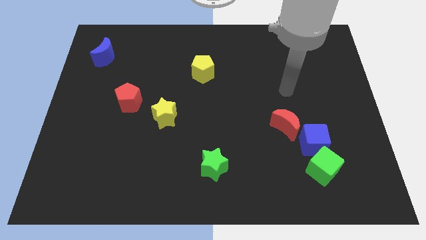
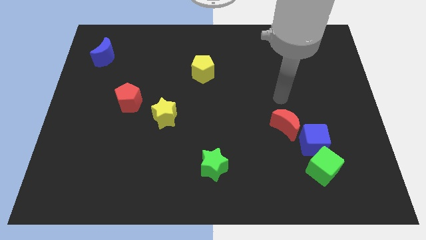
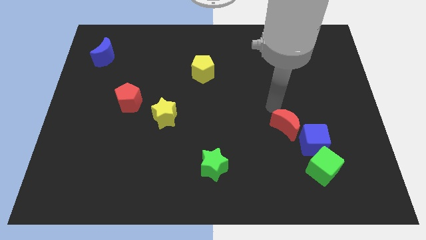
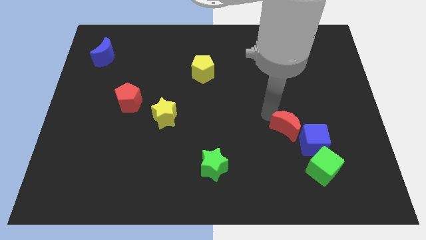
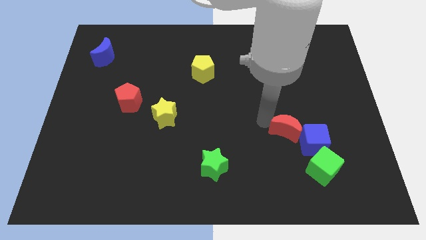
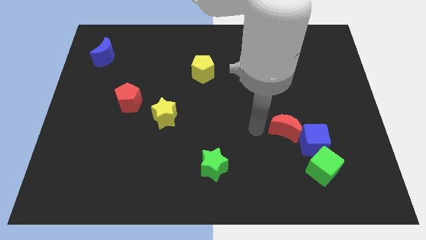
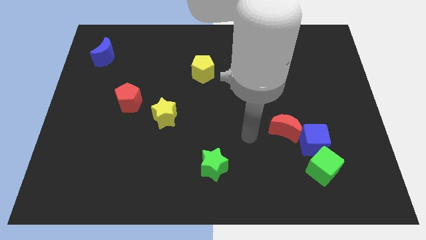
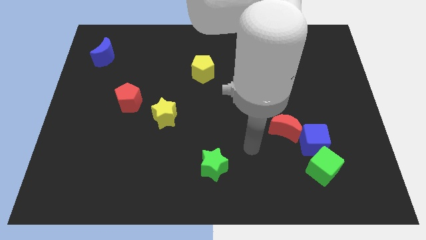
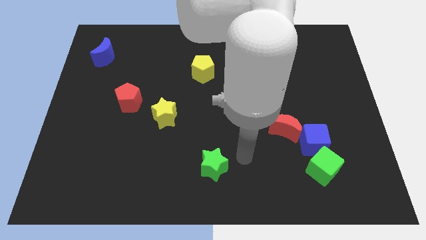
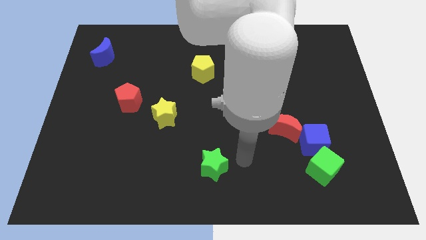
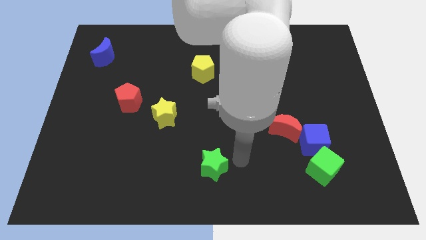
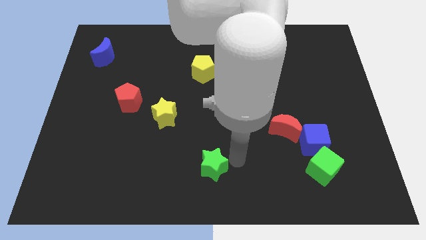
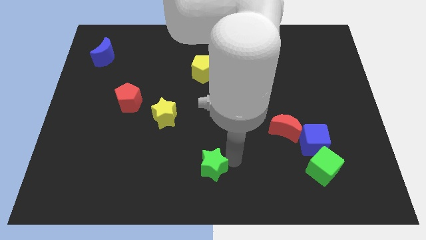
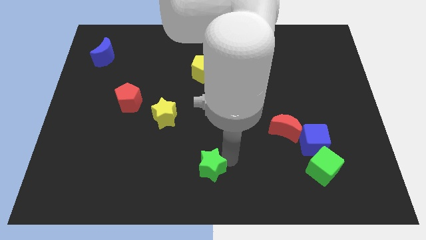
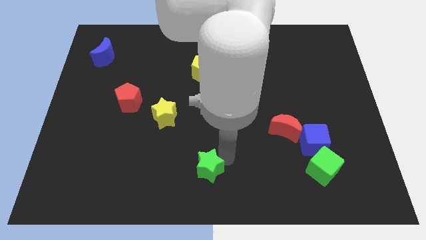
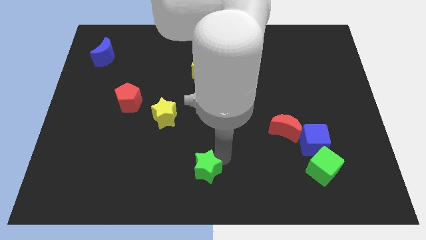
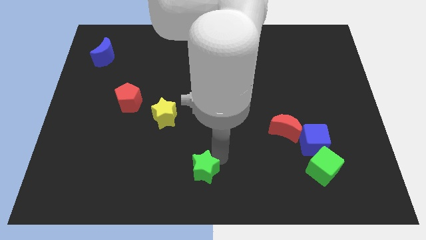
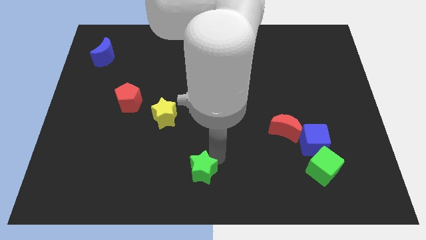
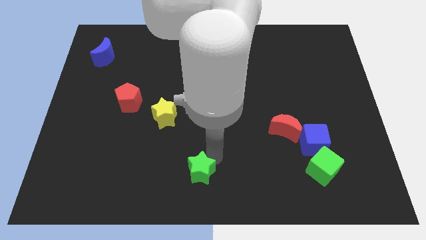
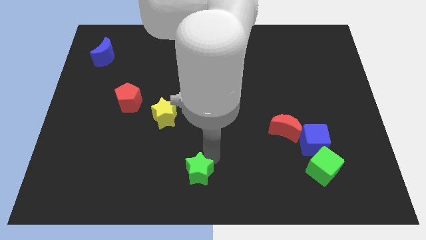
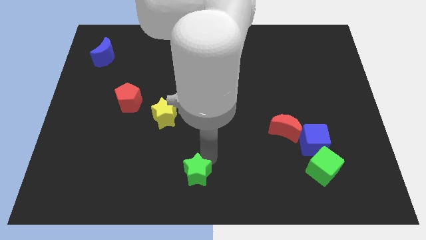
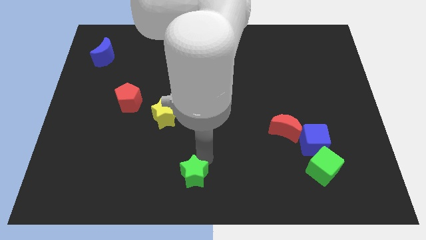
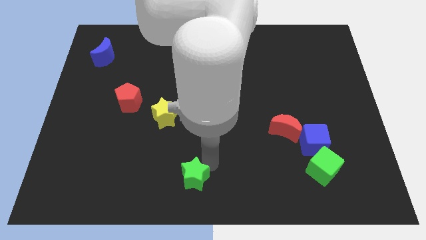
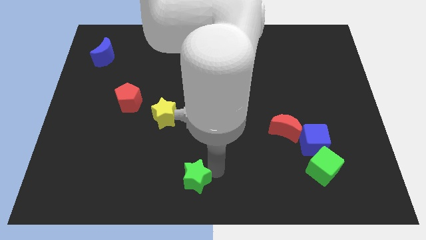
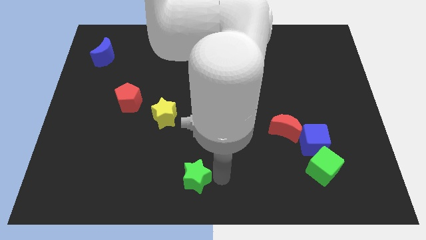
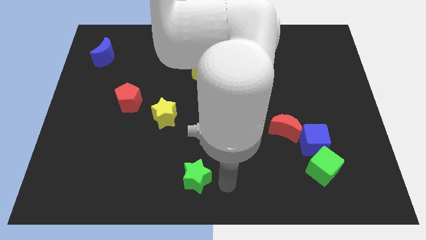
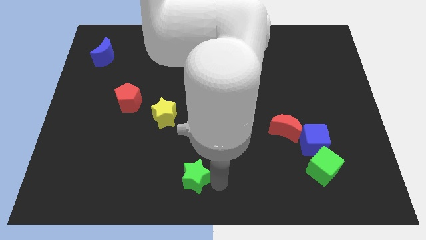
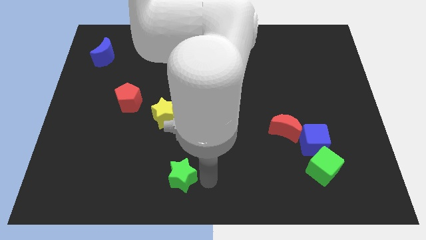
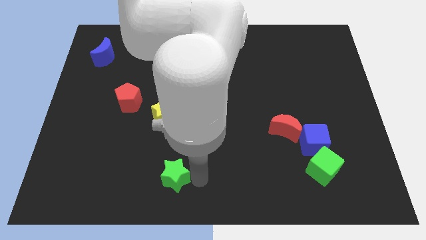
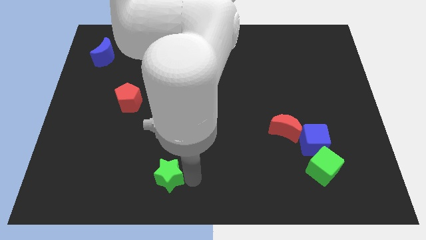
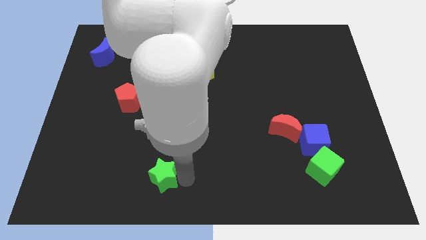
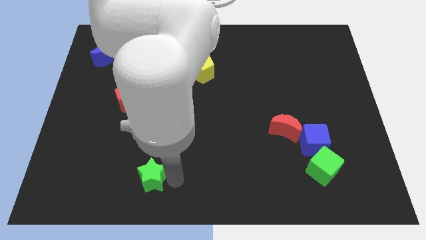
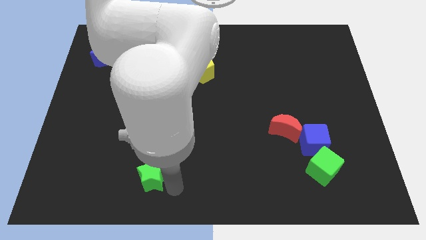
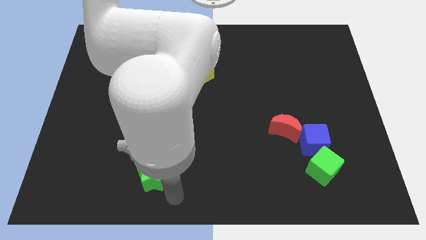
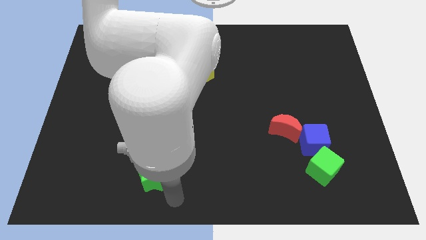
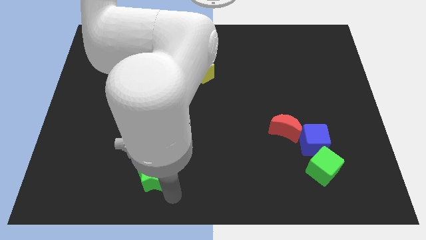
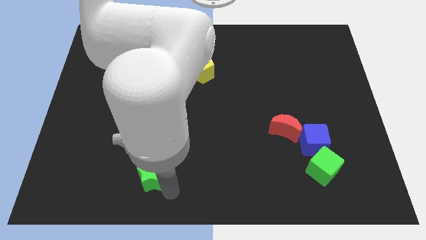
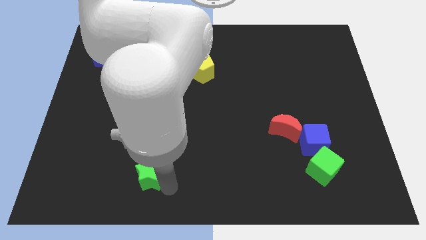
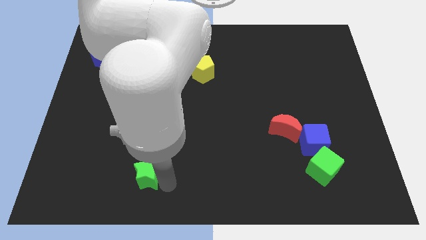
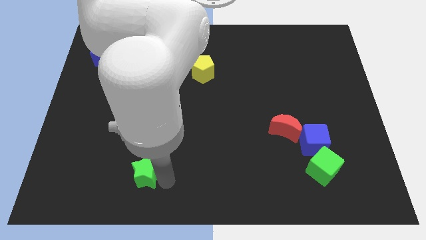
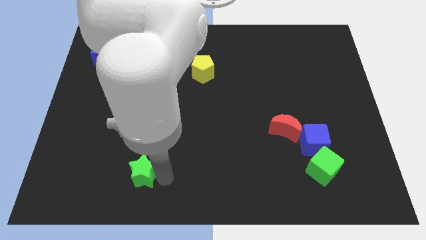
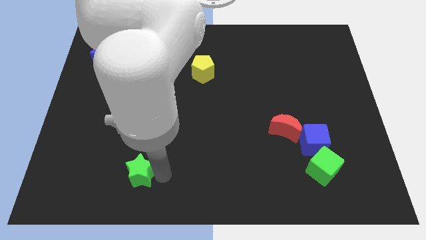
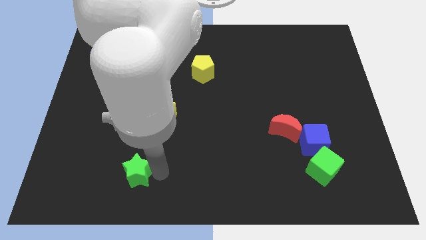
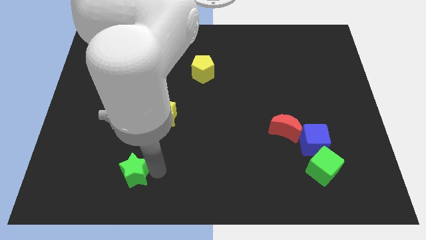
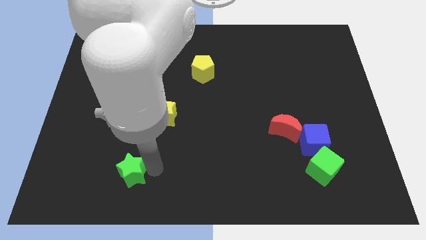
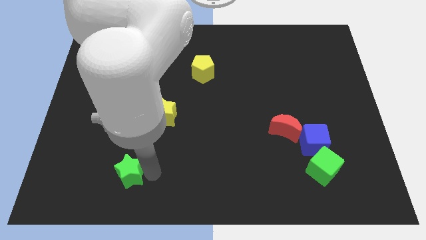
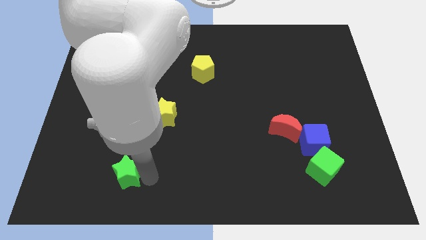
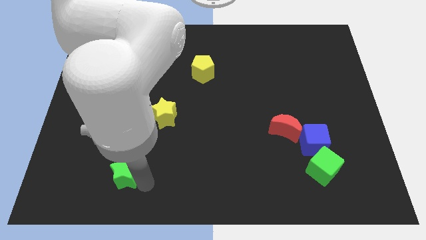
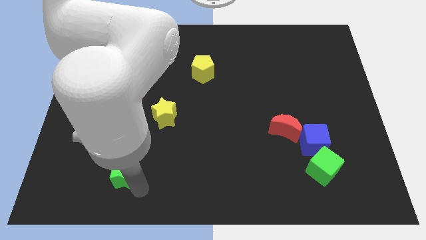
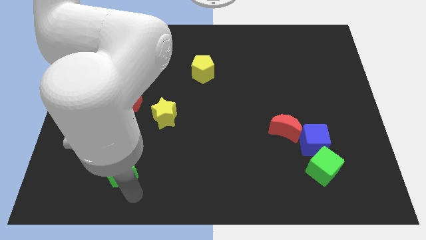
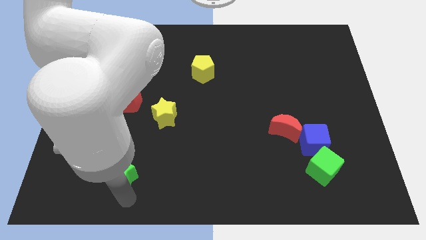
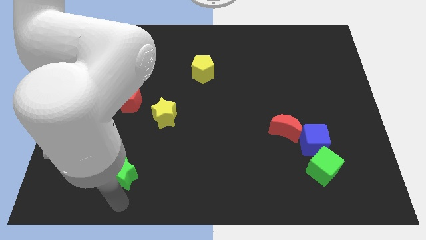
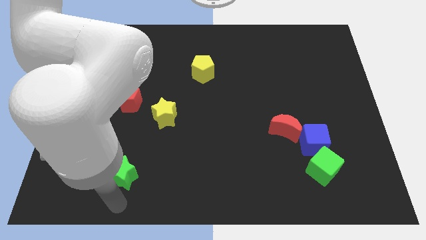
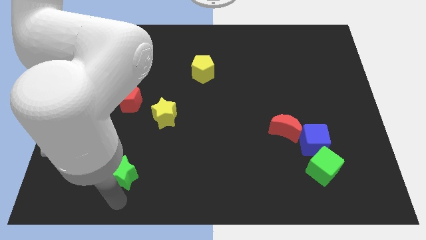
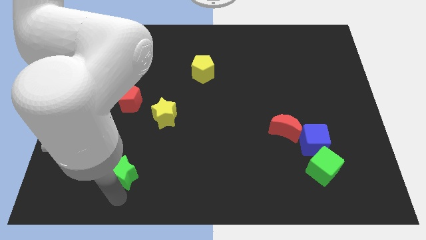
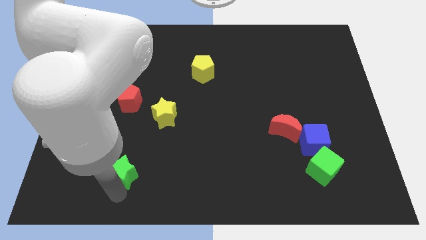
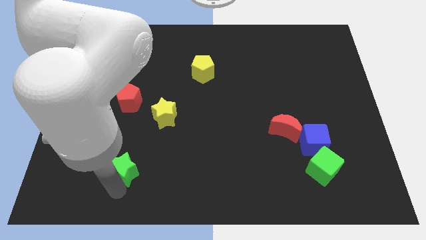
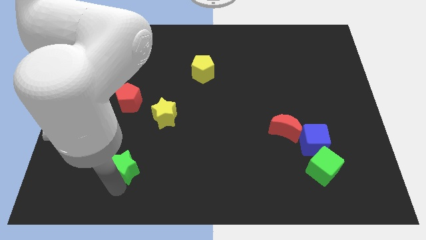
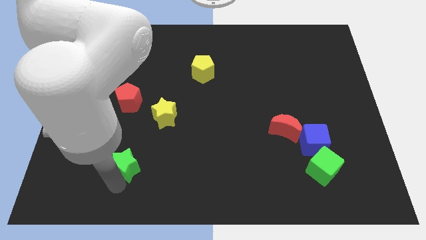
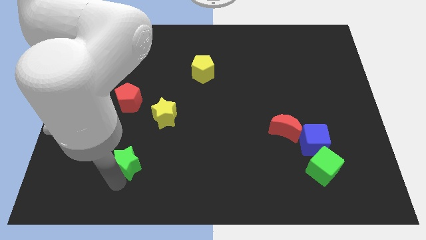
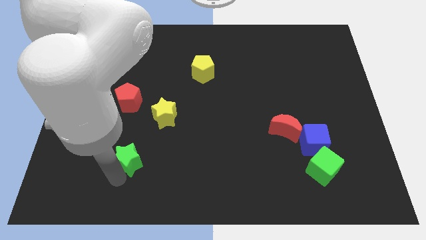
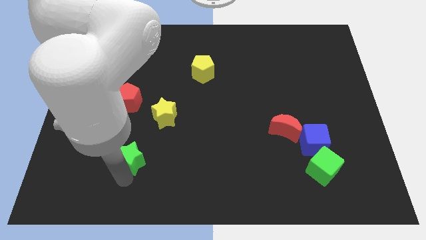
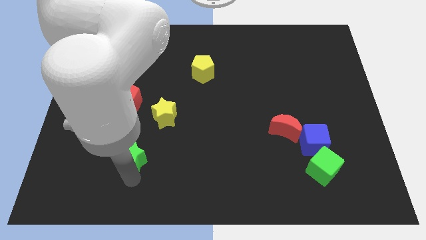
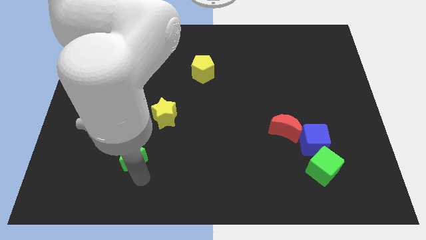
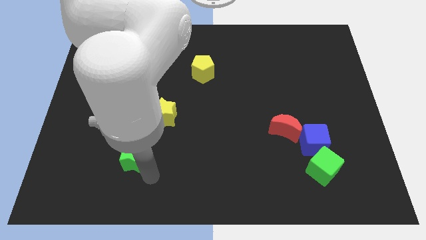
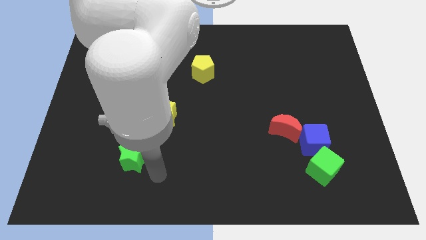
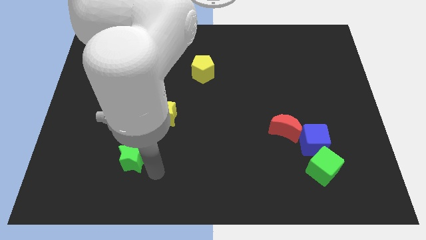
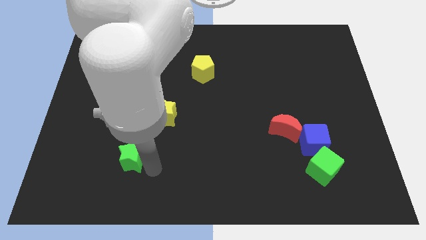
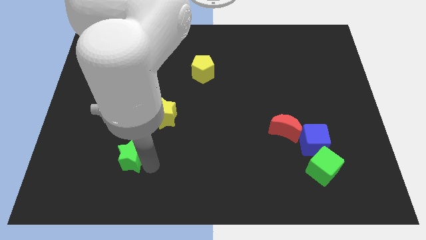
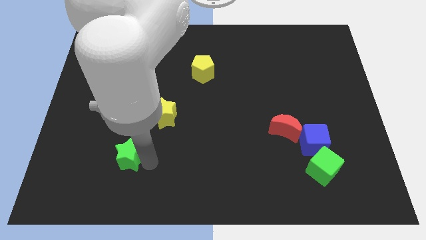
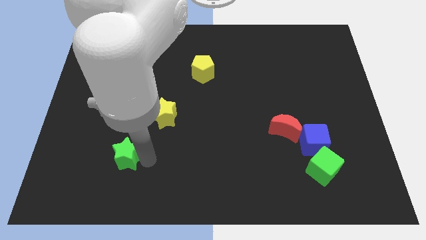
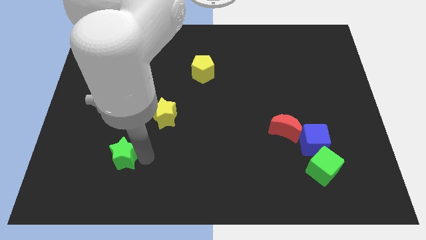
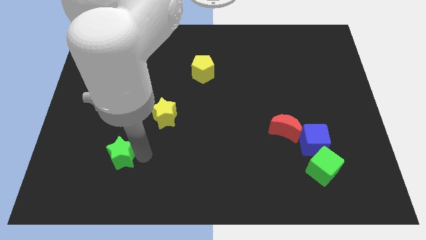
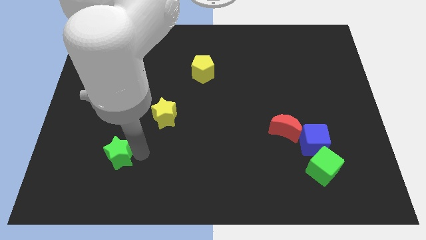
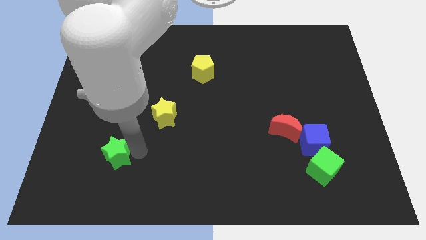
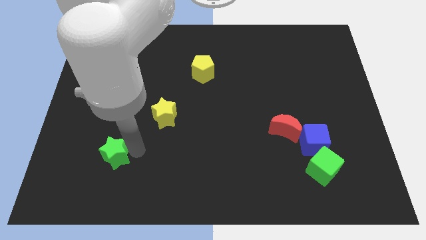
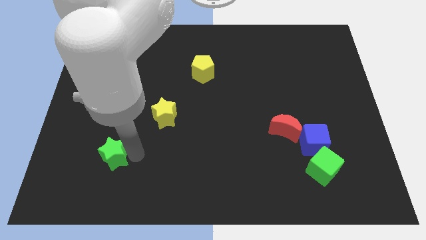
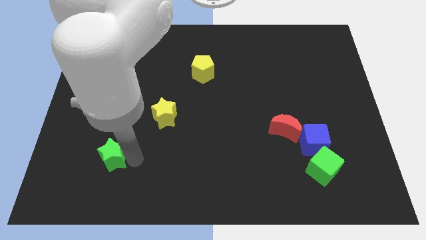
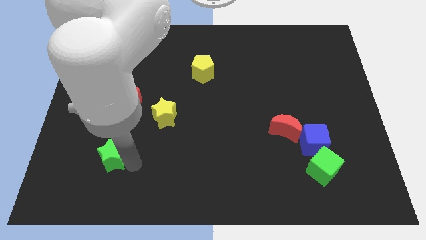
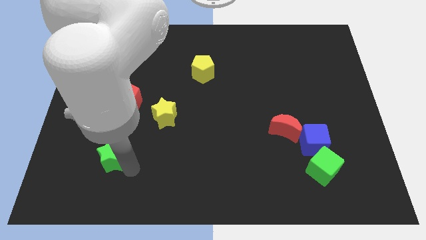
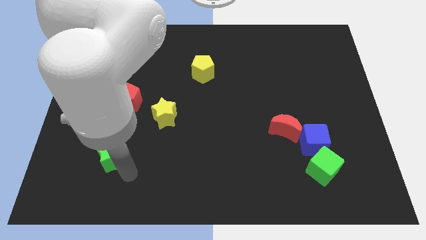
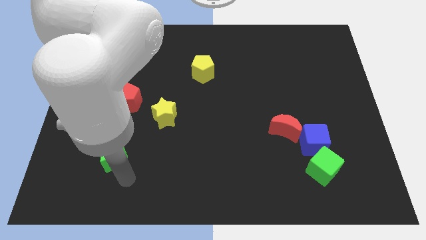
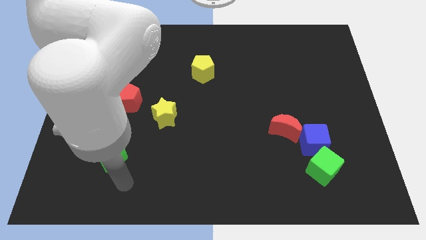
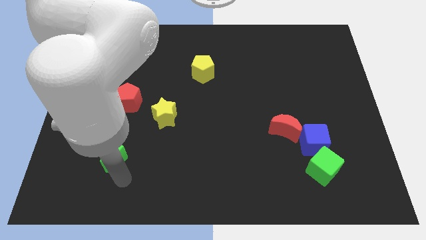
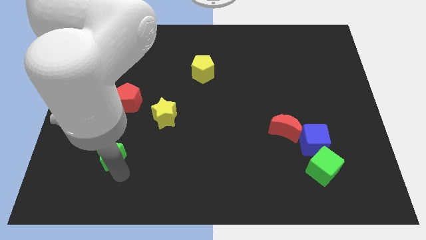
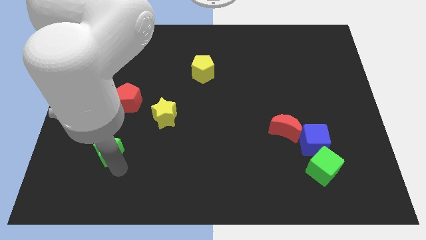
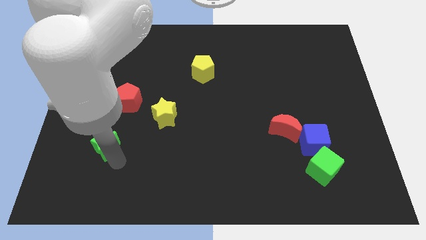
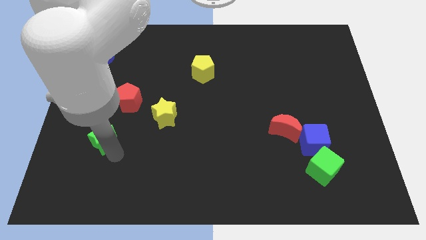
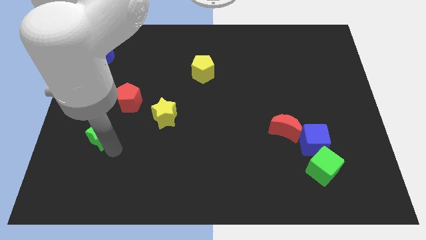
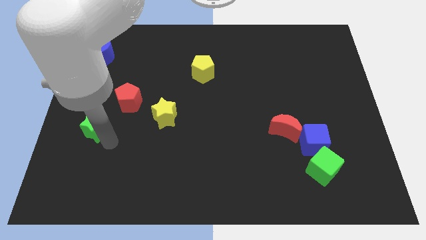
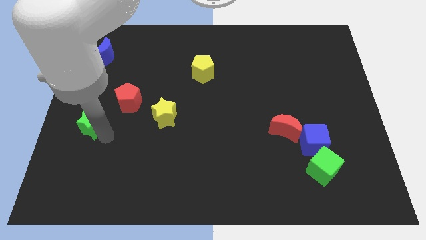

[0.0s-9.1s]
push the green star to the left side
